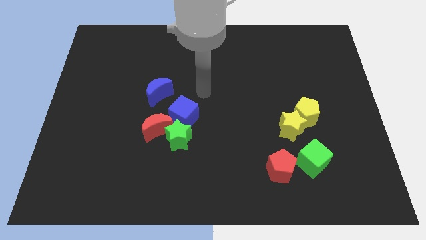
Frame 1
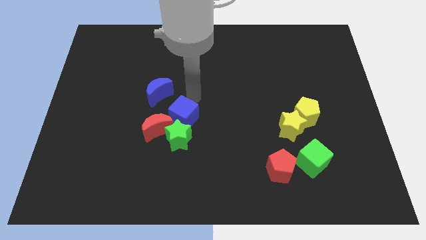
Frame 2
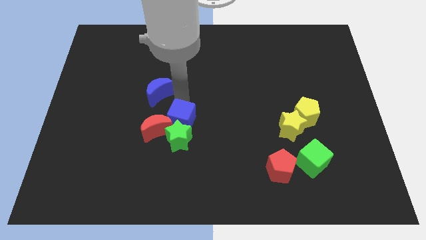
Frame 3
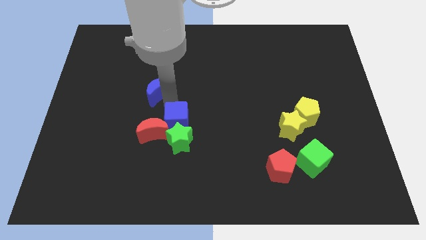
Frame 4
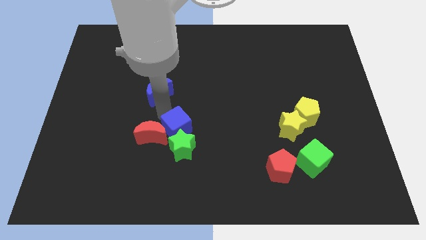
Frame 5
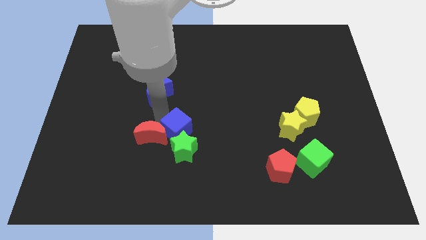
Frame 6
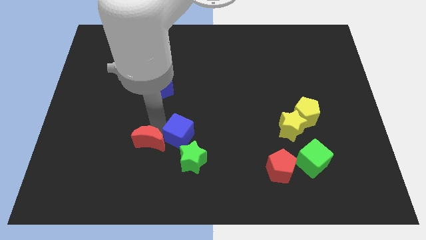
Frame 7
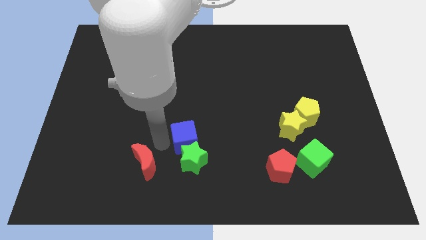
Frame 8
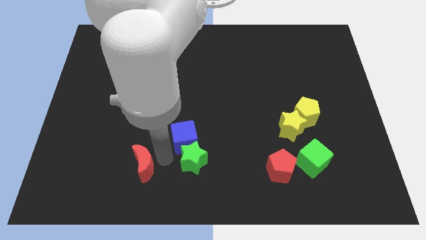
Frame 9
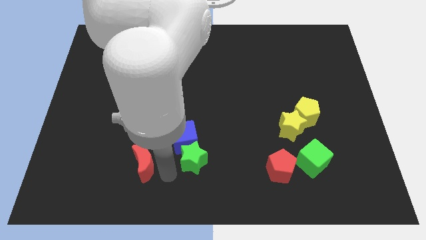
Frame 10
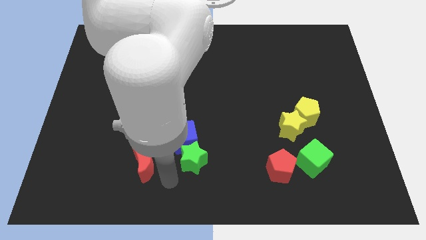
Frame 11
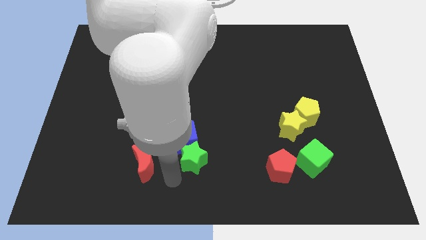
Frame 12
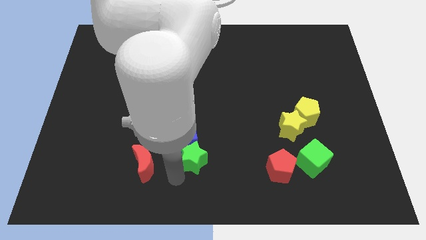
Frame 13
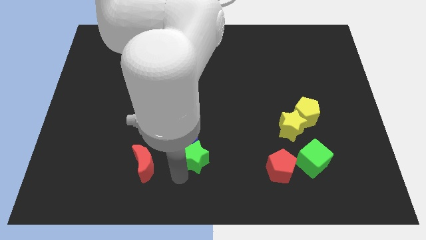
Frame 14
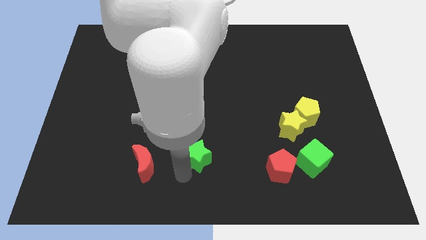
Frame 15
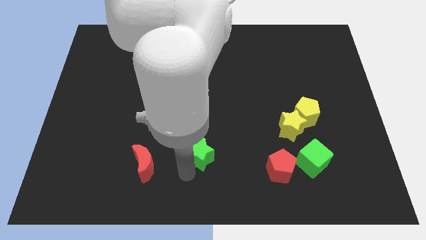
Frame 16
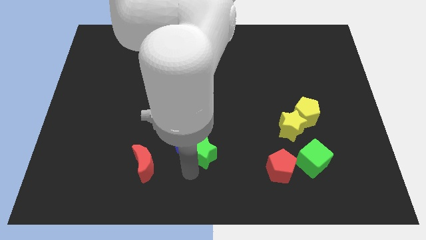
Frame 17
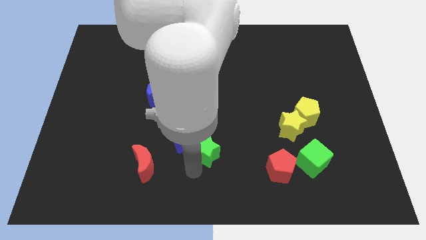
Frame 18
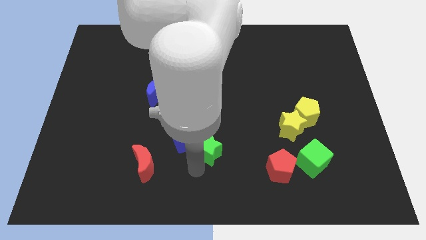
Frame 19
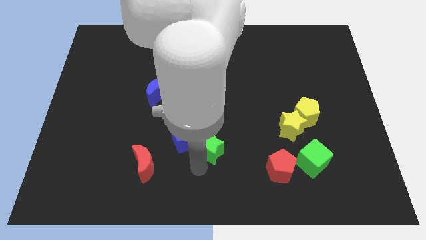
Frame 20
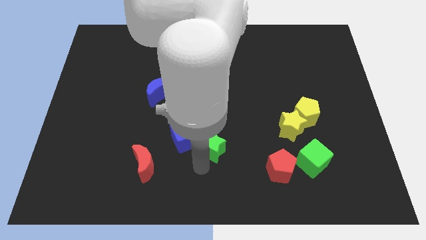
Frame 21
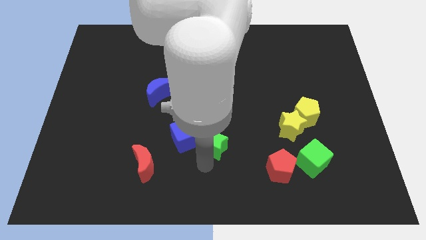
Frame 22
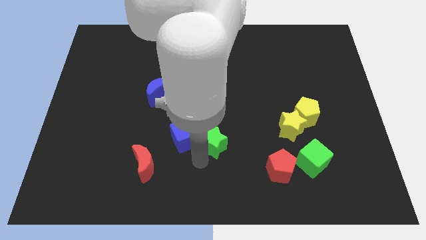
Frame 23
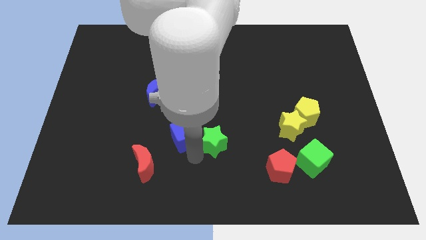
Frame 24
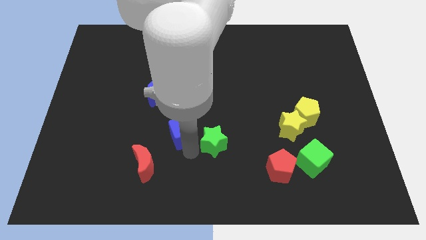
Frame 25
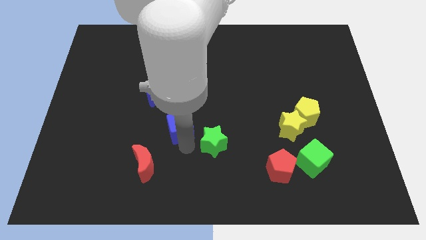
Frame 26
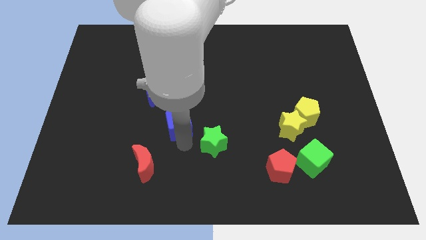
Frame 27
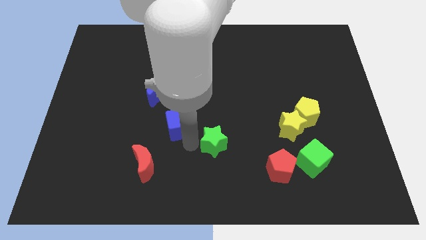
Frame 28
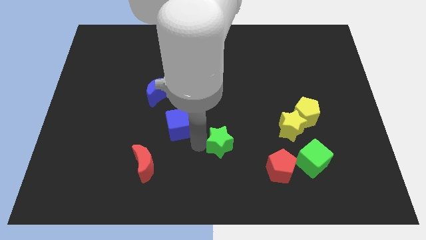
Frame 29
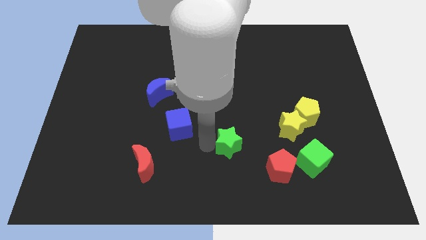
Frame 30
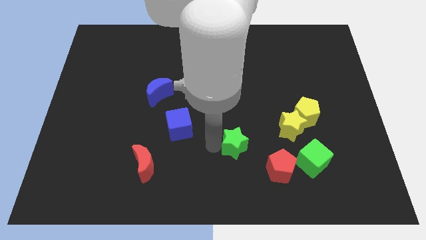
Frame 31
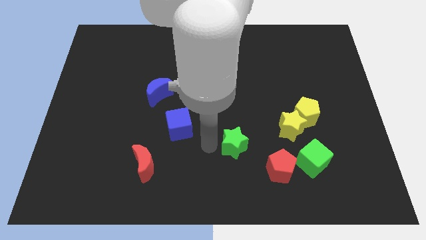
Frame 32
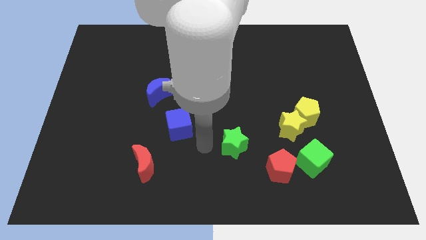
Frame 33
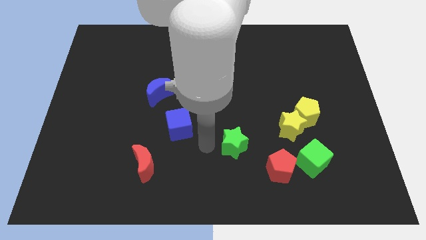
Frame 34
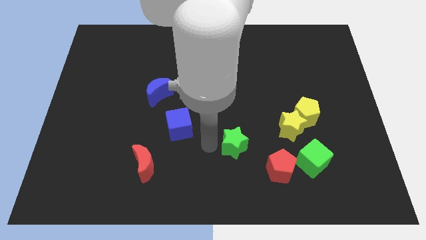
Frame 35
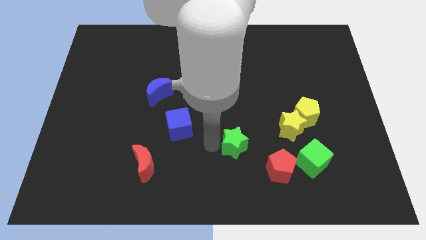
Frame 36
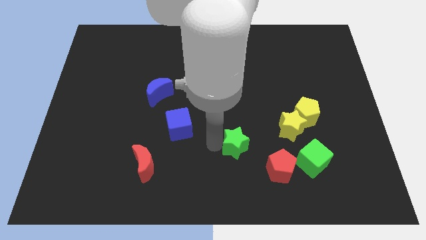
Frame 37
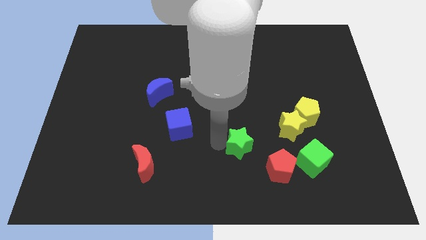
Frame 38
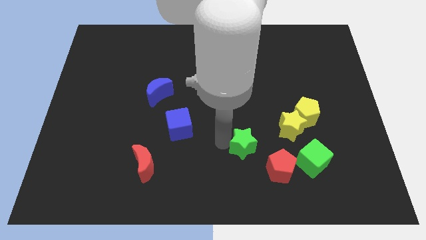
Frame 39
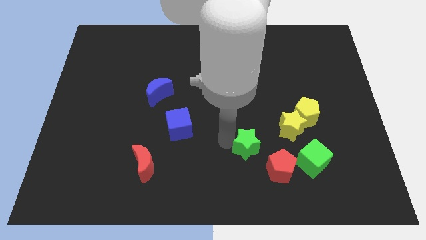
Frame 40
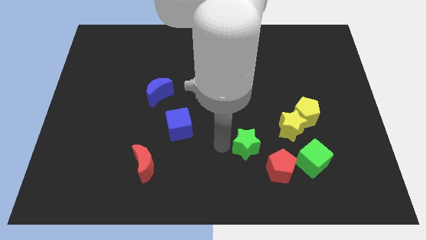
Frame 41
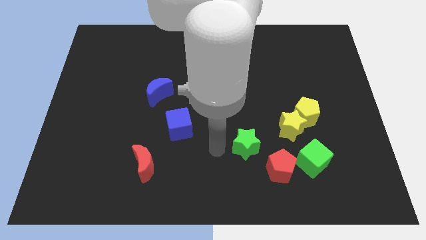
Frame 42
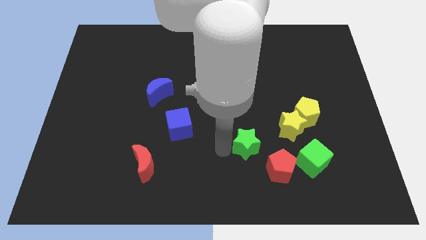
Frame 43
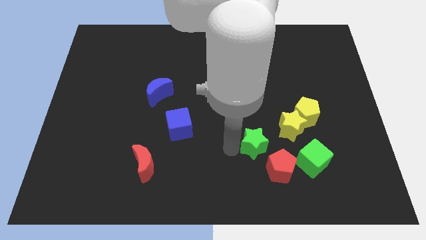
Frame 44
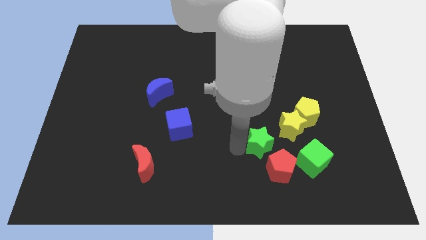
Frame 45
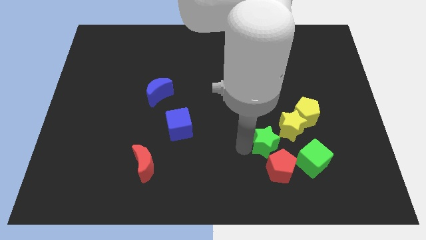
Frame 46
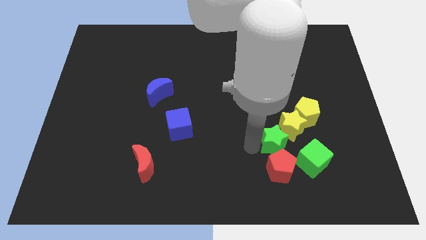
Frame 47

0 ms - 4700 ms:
move the green star right

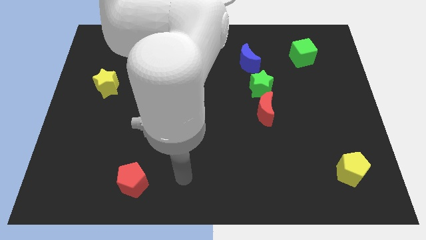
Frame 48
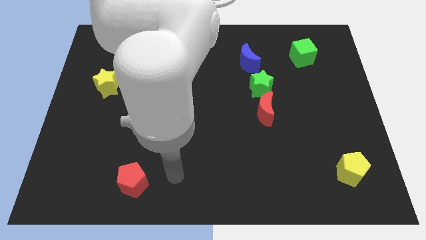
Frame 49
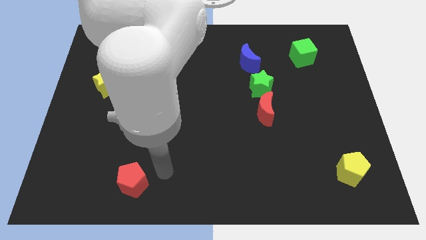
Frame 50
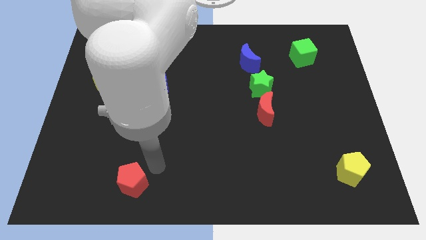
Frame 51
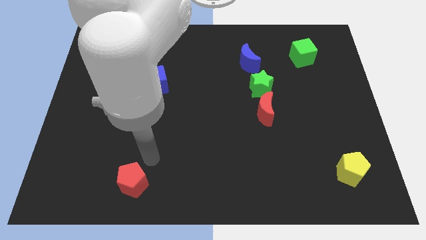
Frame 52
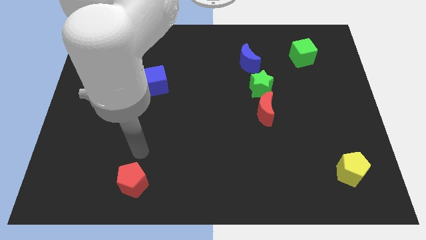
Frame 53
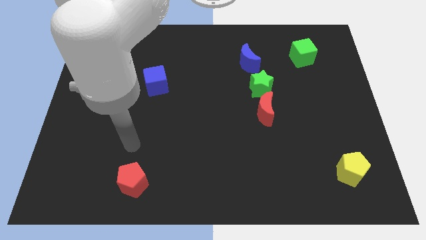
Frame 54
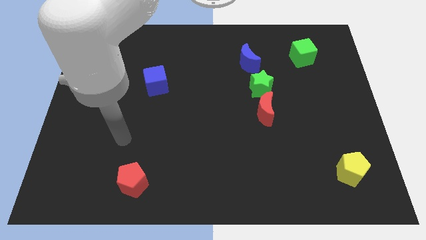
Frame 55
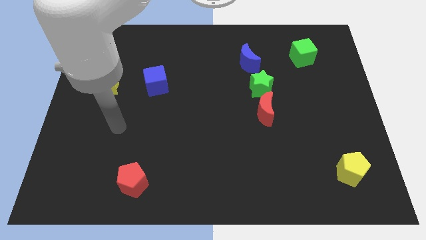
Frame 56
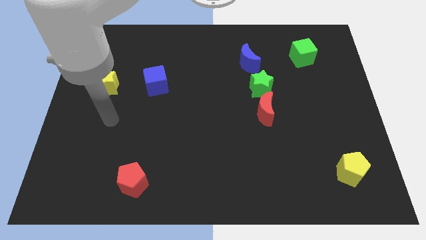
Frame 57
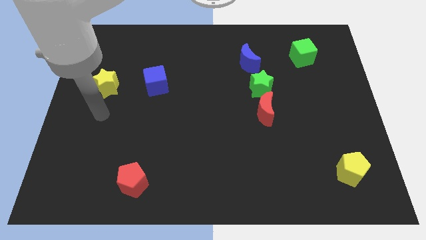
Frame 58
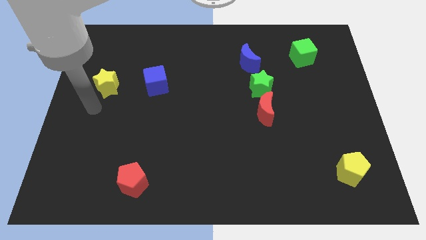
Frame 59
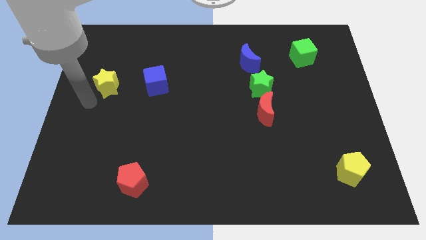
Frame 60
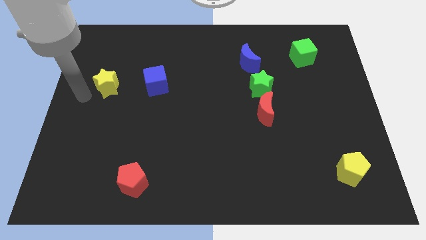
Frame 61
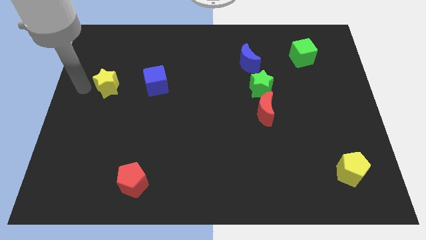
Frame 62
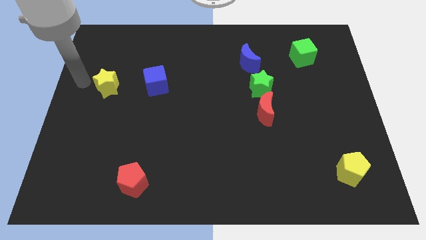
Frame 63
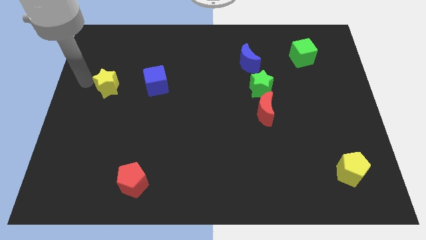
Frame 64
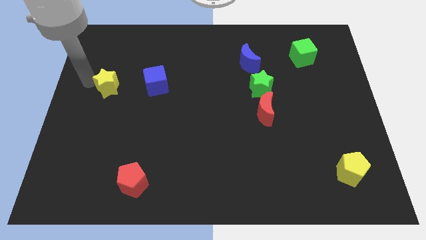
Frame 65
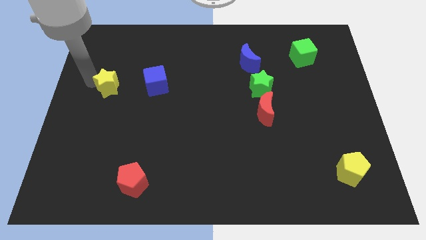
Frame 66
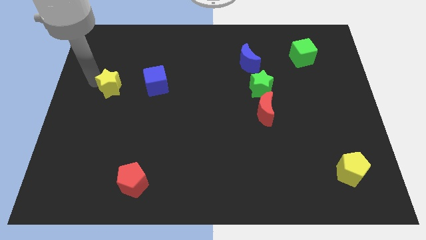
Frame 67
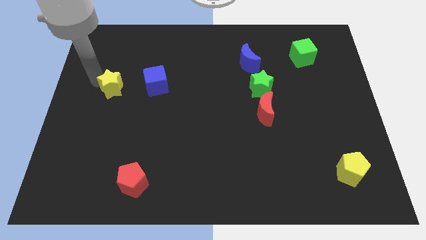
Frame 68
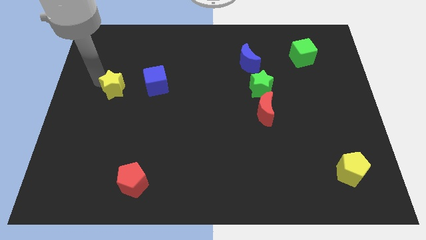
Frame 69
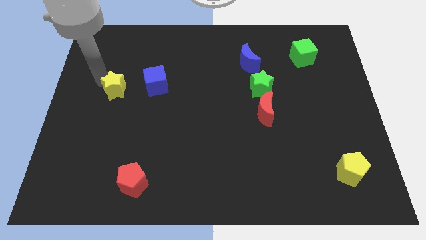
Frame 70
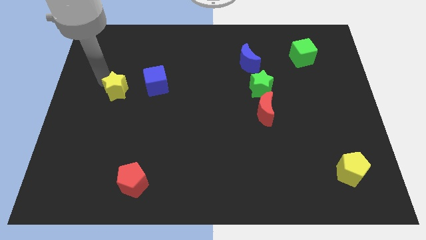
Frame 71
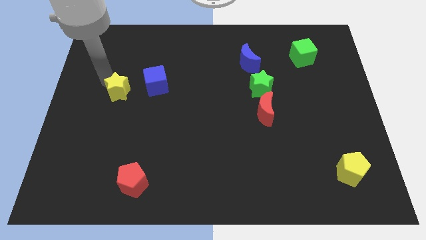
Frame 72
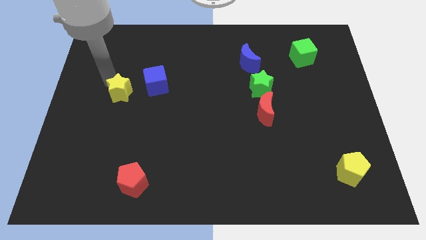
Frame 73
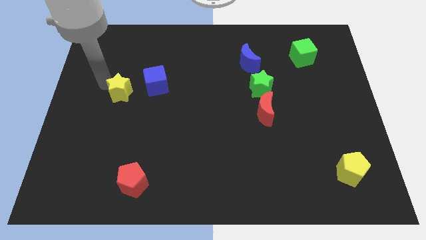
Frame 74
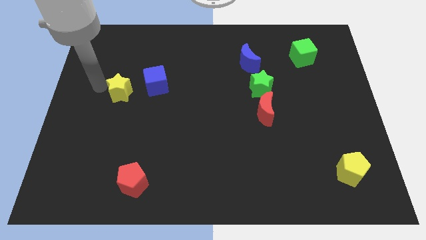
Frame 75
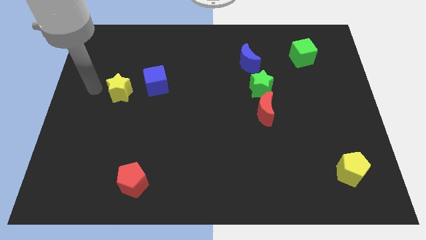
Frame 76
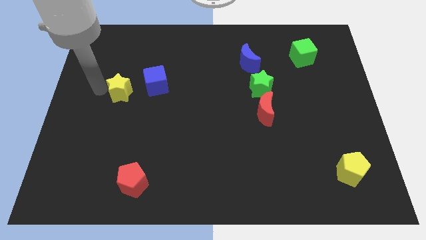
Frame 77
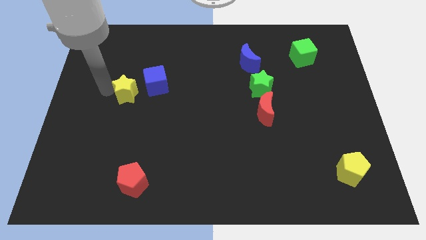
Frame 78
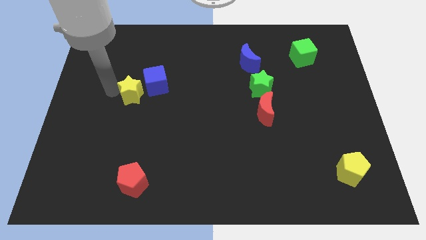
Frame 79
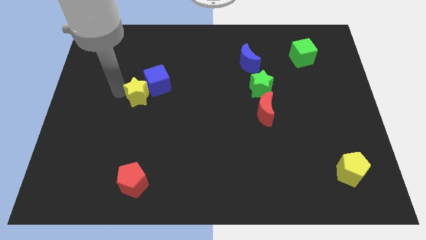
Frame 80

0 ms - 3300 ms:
push the yellow star a bit to the right
